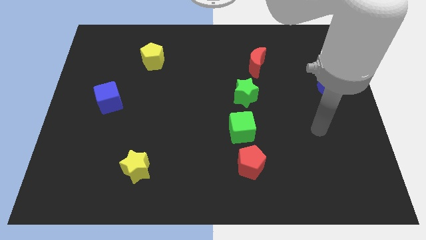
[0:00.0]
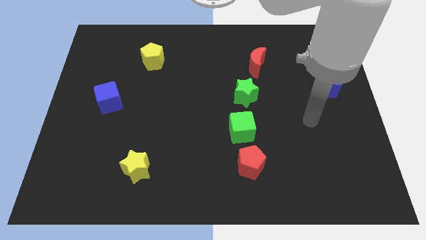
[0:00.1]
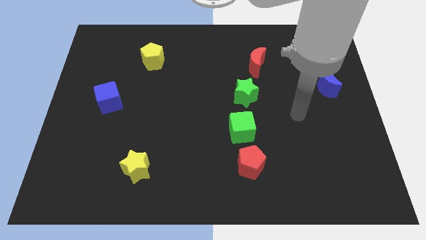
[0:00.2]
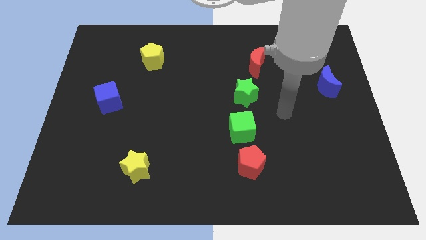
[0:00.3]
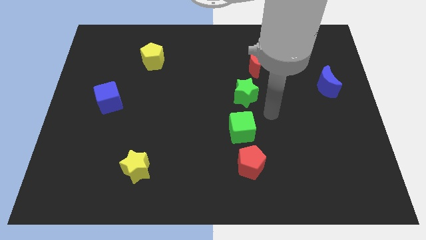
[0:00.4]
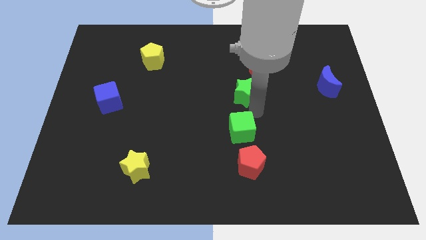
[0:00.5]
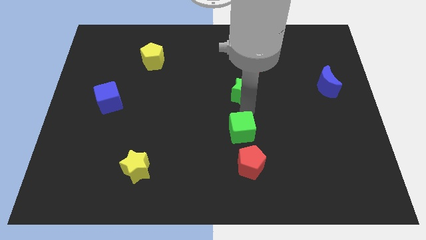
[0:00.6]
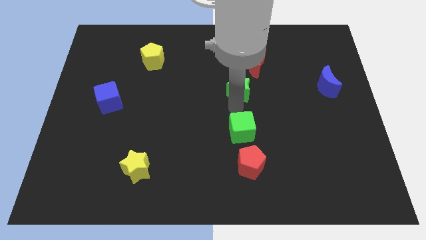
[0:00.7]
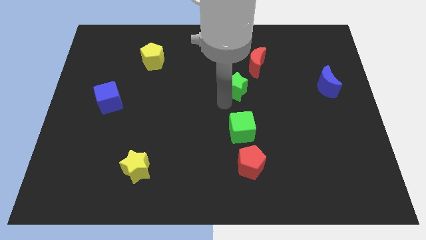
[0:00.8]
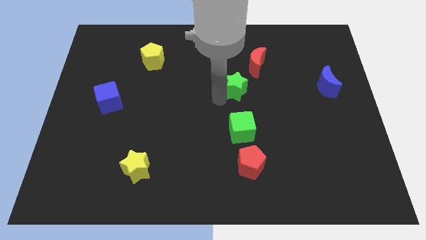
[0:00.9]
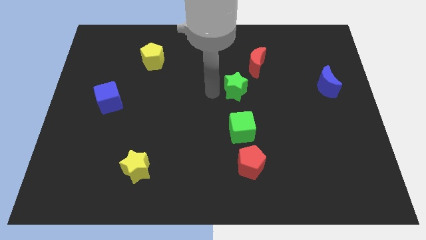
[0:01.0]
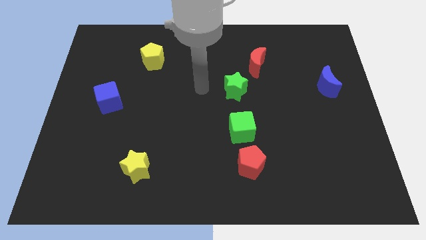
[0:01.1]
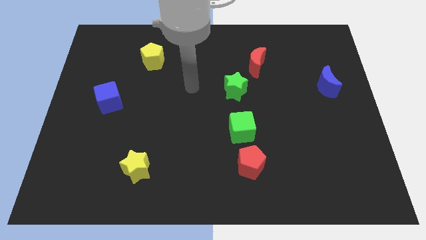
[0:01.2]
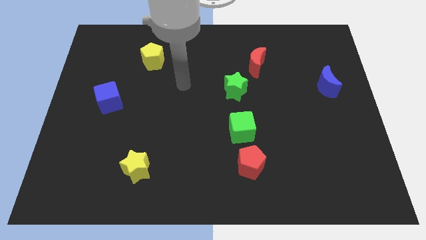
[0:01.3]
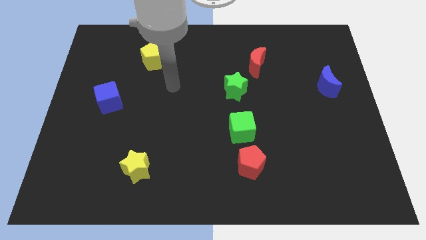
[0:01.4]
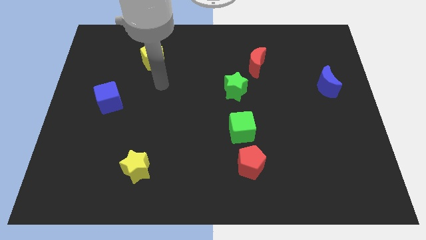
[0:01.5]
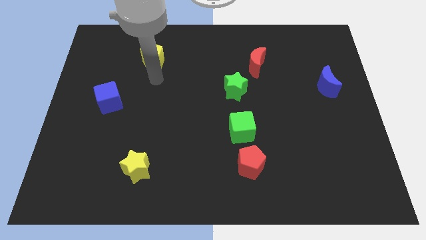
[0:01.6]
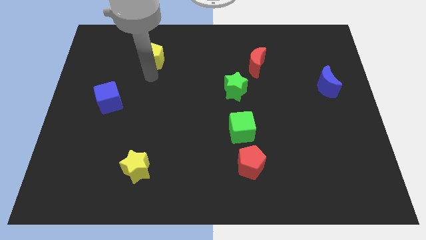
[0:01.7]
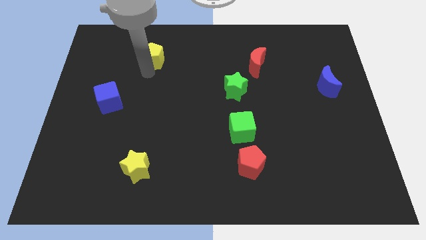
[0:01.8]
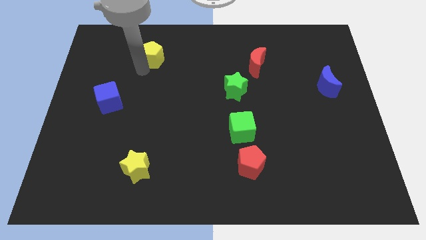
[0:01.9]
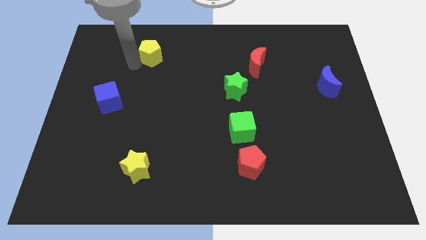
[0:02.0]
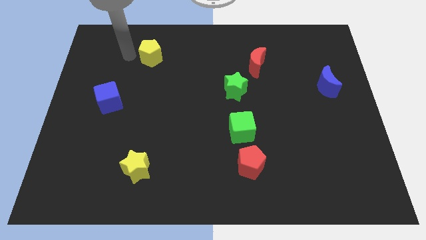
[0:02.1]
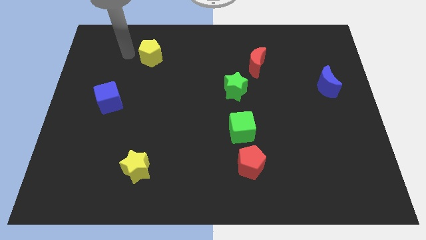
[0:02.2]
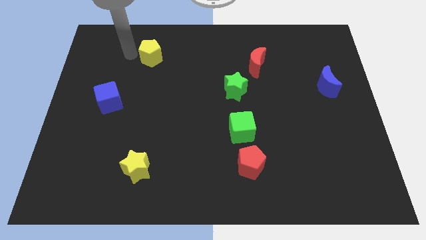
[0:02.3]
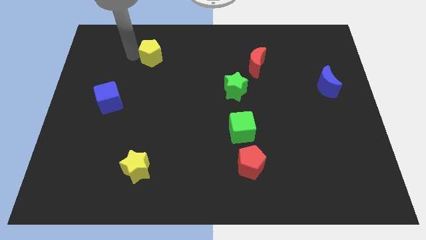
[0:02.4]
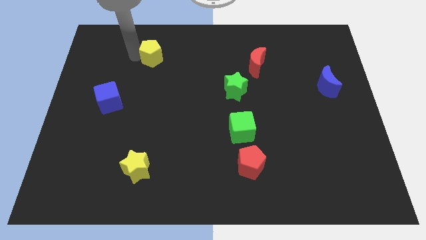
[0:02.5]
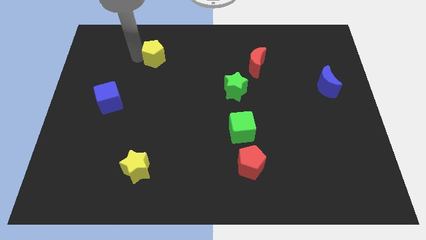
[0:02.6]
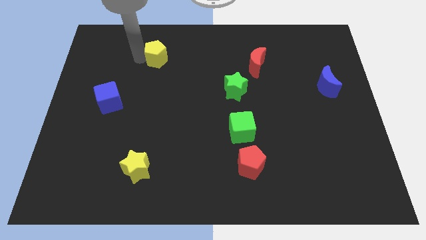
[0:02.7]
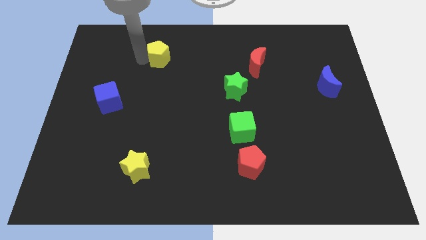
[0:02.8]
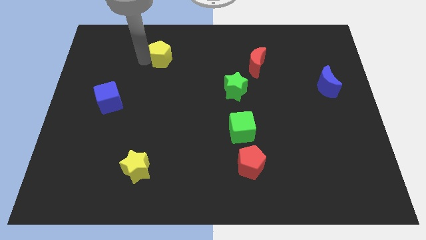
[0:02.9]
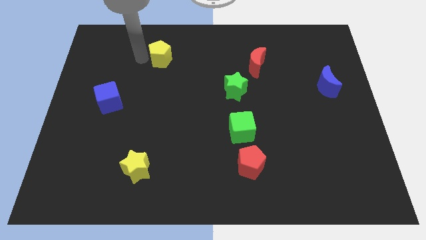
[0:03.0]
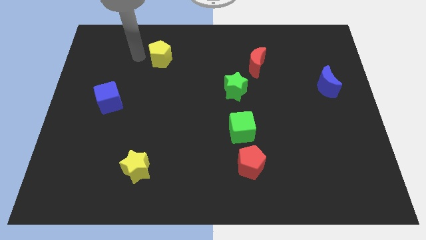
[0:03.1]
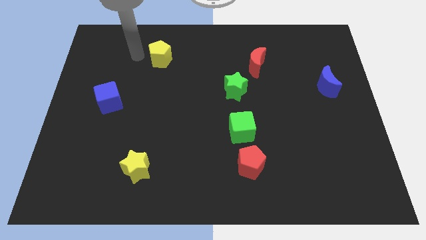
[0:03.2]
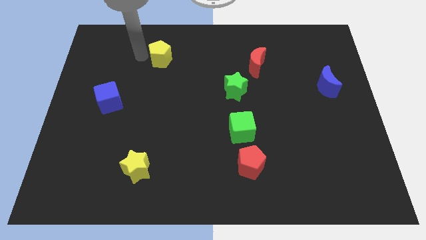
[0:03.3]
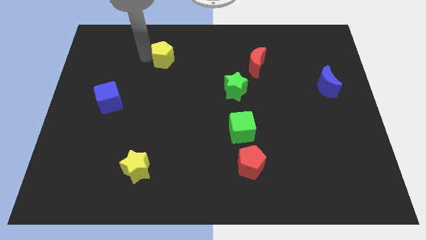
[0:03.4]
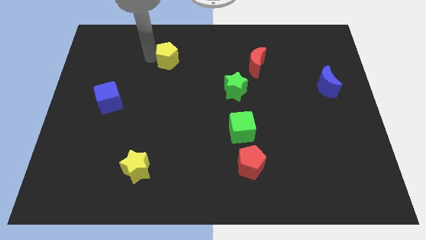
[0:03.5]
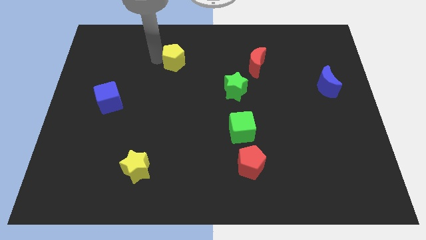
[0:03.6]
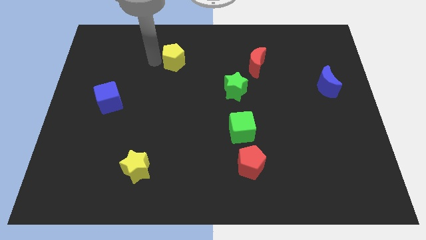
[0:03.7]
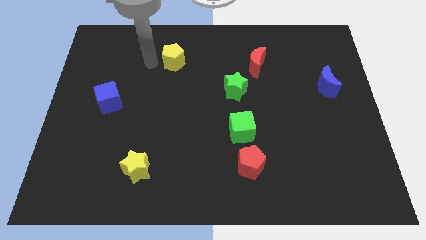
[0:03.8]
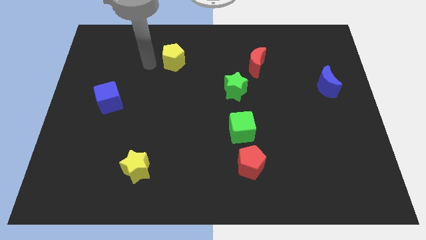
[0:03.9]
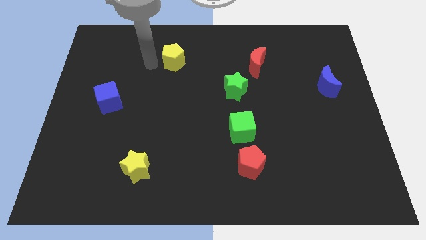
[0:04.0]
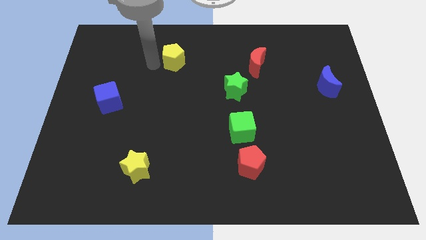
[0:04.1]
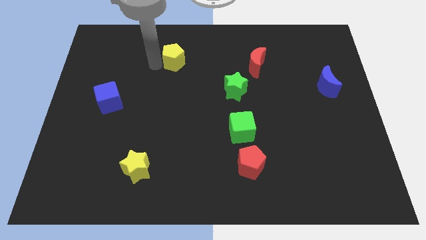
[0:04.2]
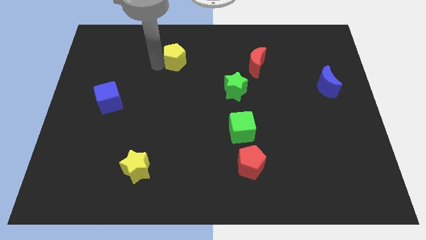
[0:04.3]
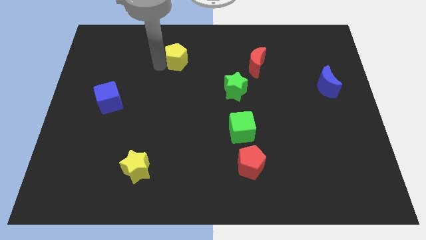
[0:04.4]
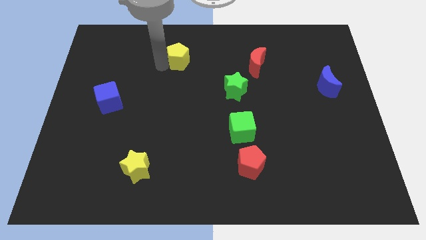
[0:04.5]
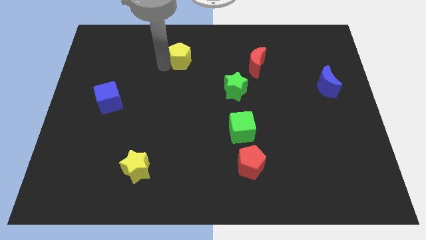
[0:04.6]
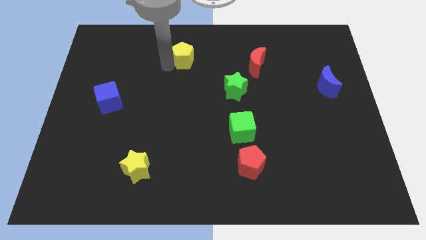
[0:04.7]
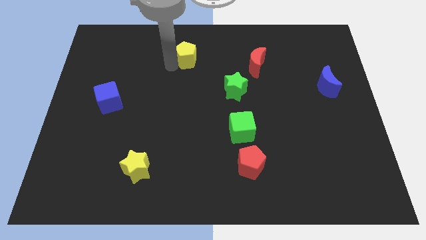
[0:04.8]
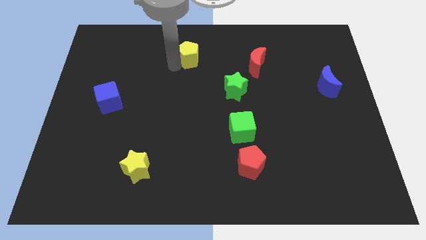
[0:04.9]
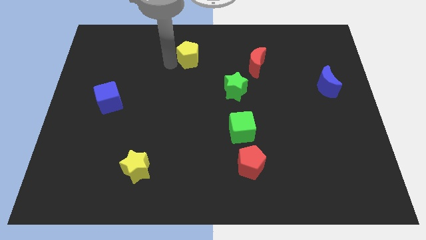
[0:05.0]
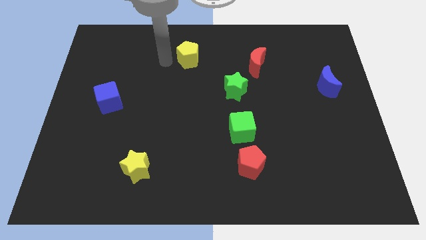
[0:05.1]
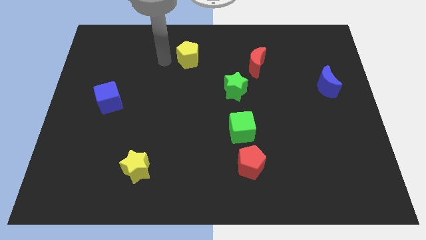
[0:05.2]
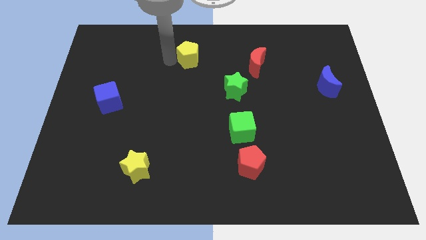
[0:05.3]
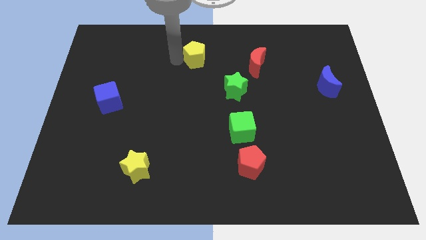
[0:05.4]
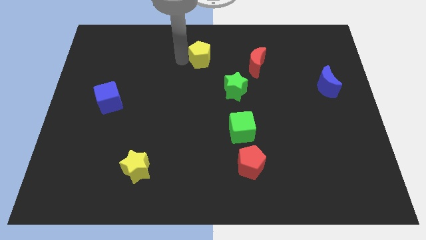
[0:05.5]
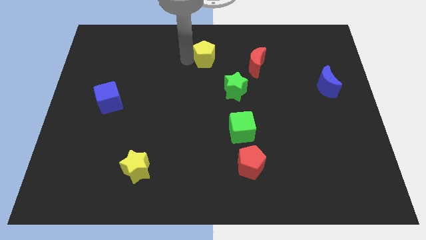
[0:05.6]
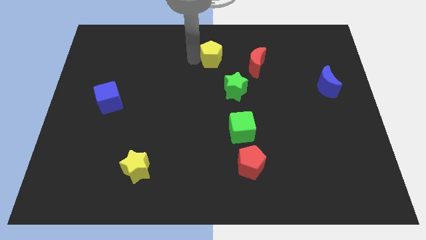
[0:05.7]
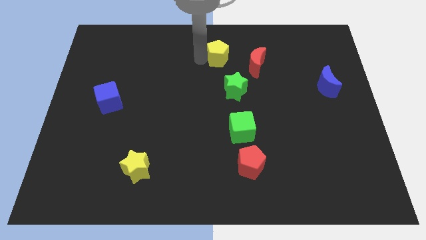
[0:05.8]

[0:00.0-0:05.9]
push the yellow pentagon above the green star

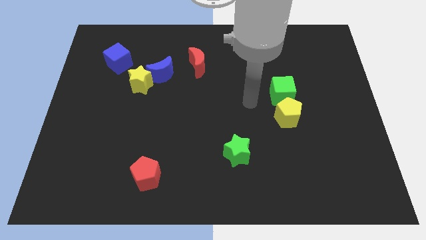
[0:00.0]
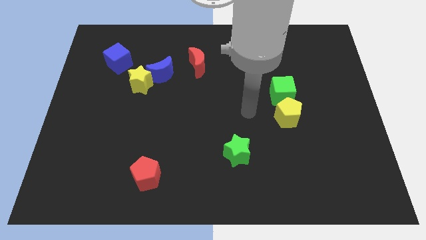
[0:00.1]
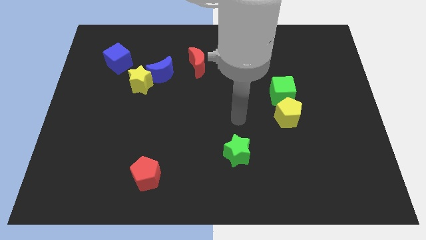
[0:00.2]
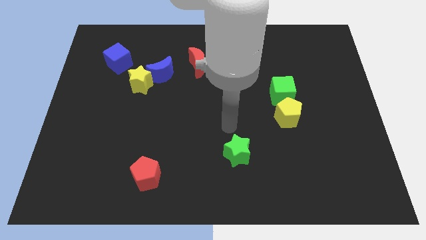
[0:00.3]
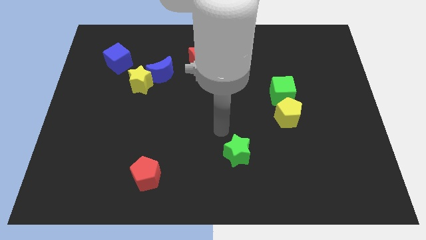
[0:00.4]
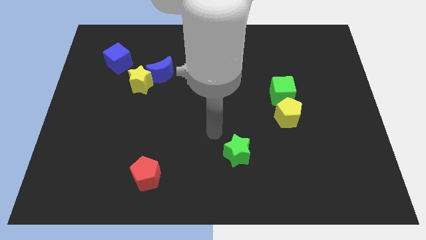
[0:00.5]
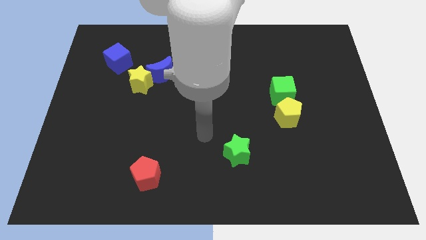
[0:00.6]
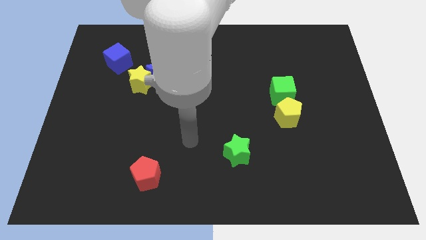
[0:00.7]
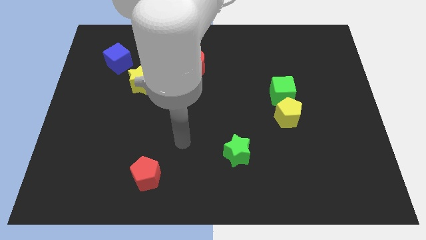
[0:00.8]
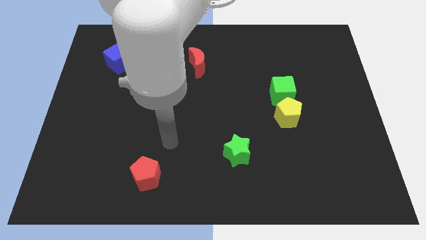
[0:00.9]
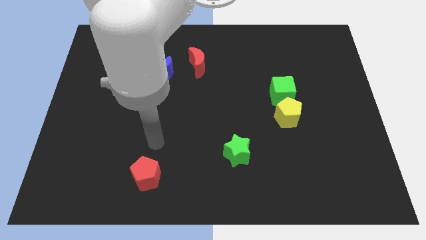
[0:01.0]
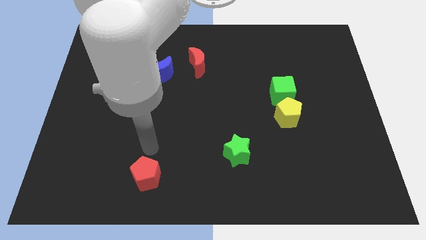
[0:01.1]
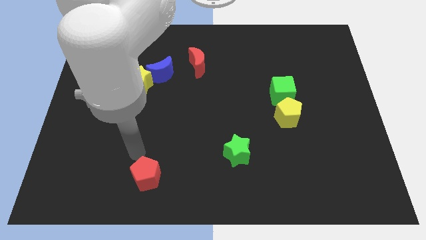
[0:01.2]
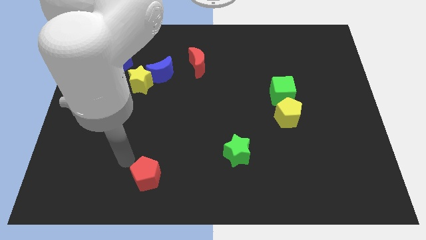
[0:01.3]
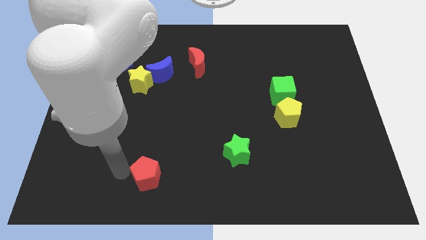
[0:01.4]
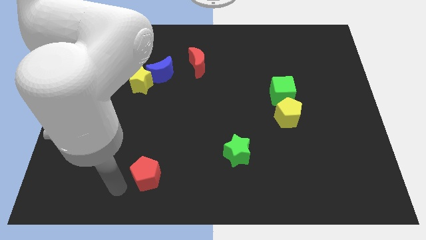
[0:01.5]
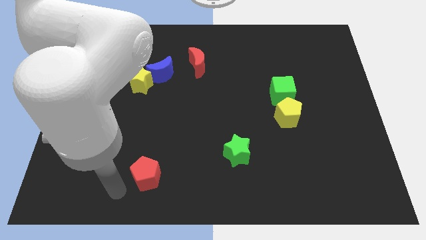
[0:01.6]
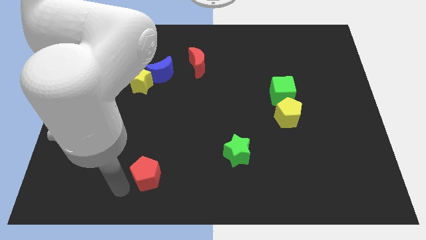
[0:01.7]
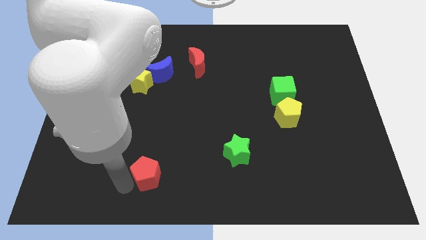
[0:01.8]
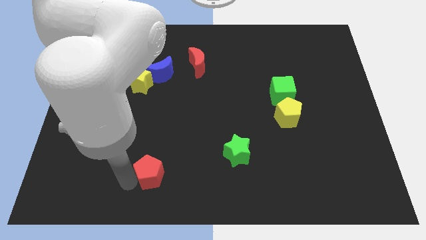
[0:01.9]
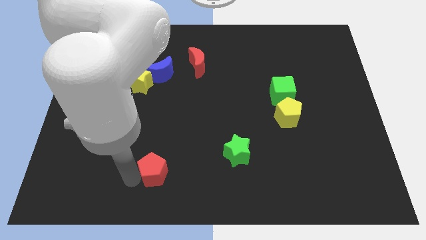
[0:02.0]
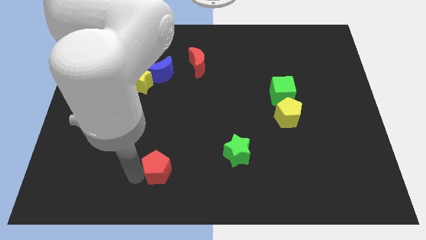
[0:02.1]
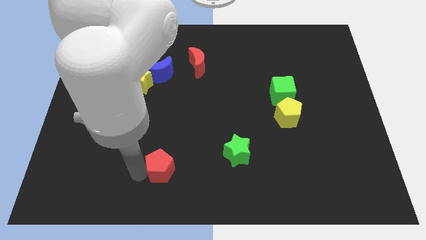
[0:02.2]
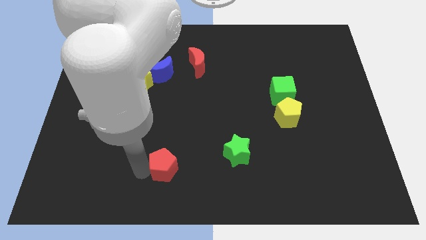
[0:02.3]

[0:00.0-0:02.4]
slide the red pentagon to the left of the green star
